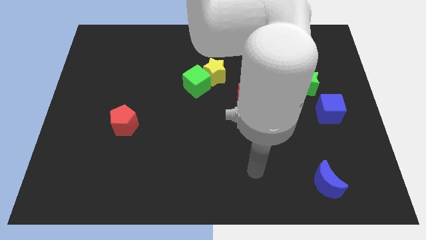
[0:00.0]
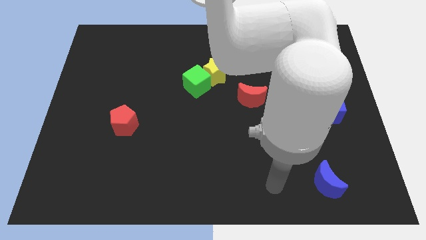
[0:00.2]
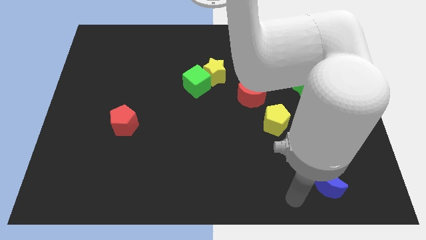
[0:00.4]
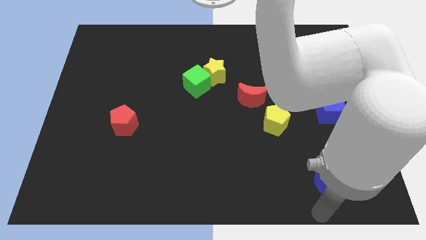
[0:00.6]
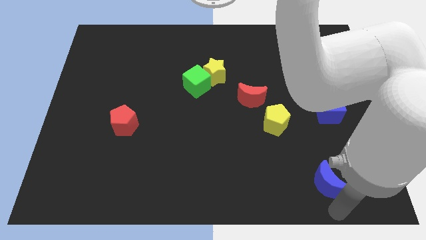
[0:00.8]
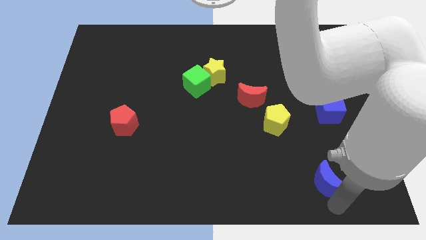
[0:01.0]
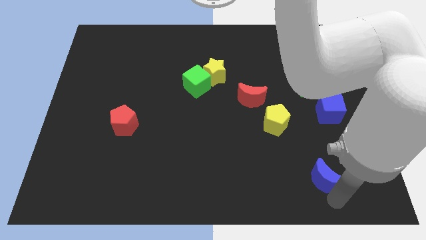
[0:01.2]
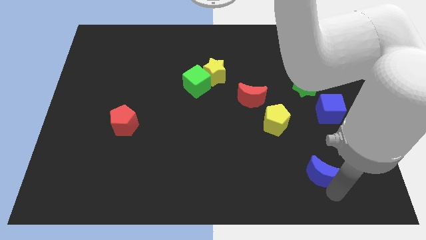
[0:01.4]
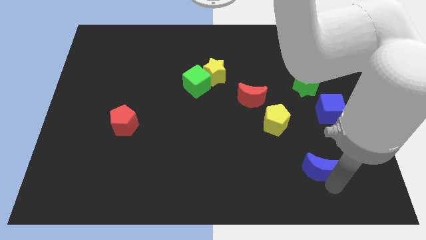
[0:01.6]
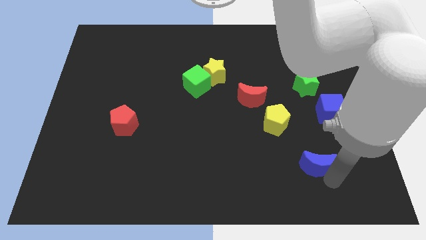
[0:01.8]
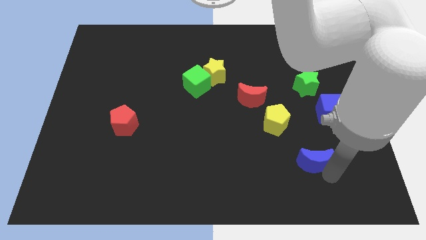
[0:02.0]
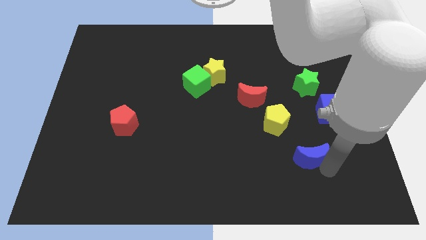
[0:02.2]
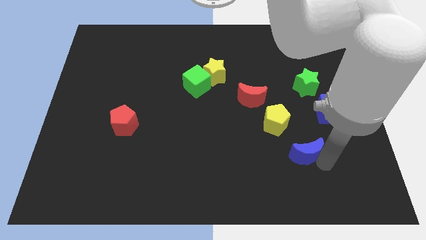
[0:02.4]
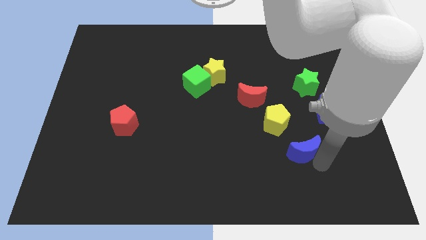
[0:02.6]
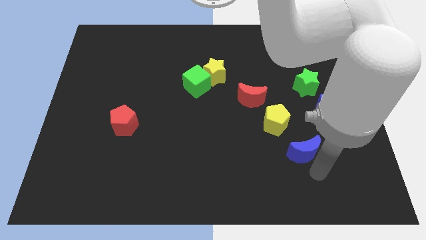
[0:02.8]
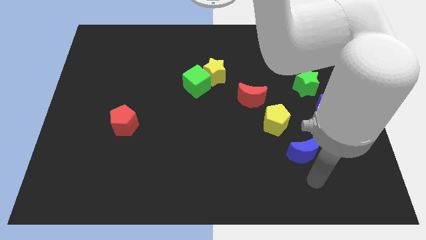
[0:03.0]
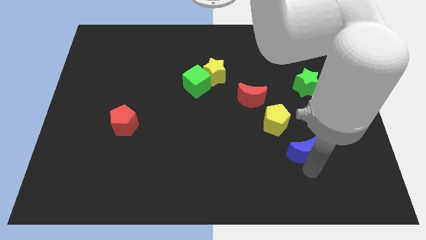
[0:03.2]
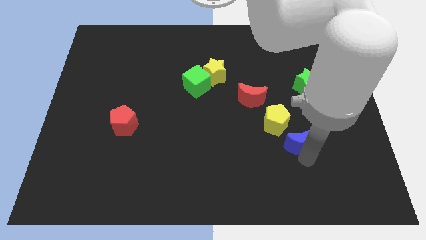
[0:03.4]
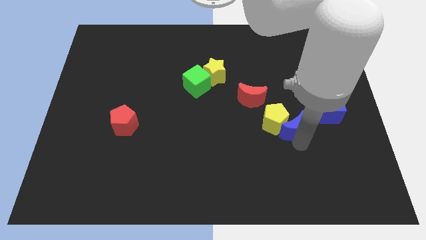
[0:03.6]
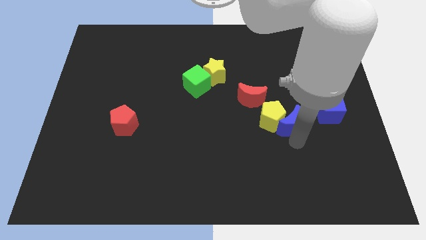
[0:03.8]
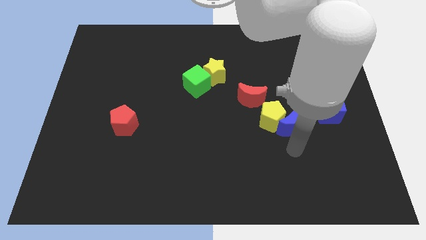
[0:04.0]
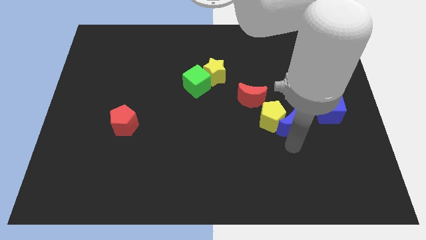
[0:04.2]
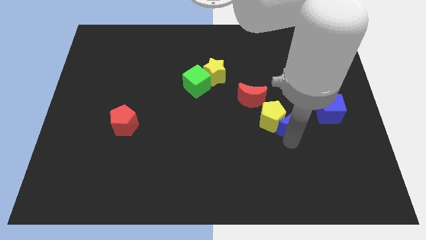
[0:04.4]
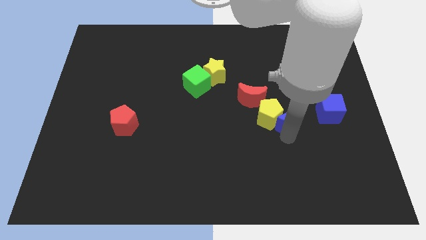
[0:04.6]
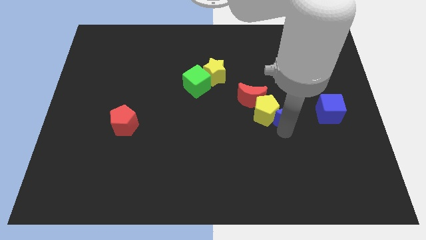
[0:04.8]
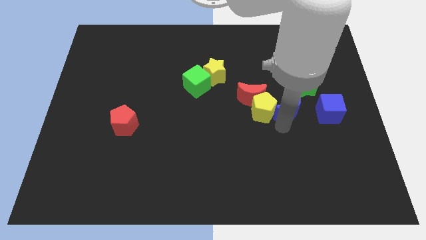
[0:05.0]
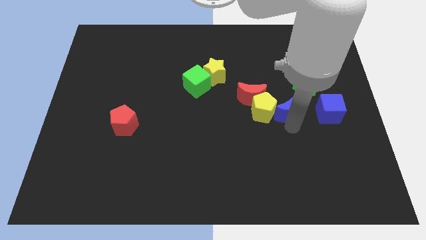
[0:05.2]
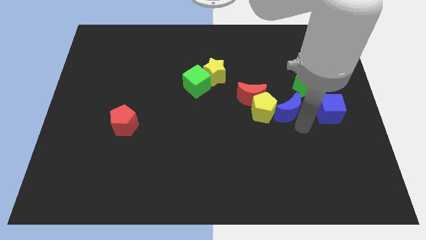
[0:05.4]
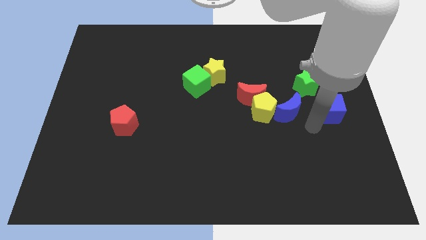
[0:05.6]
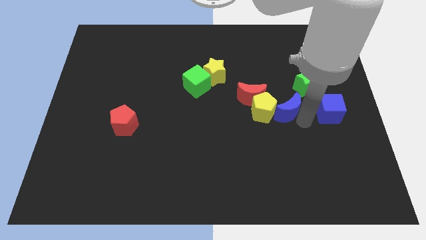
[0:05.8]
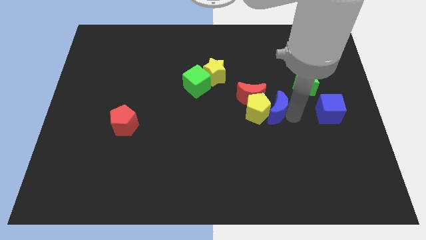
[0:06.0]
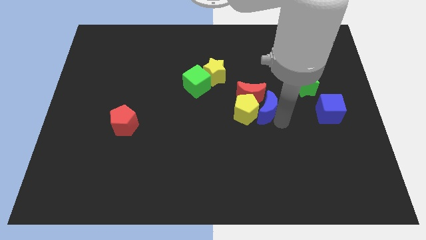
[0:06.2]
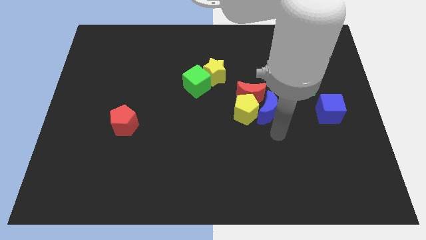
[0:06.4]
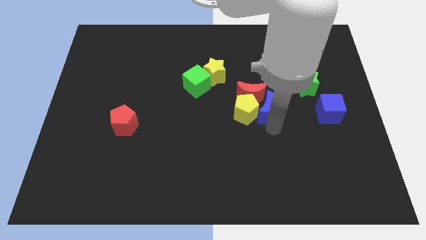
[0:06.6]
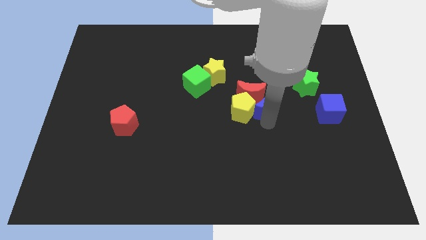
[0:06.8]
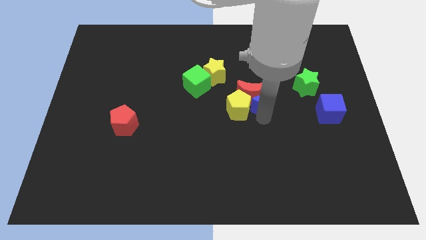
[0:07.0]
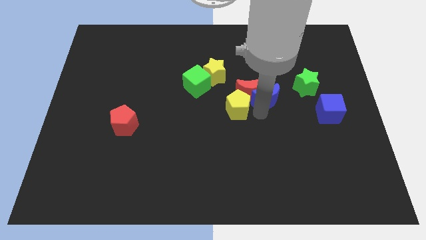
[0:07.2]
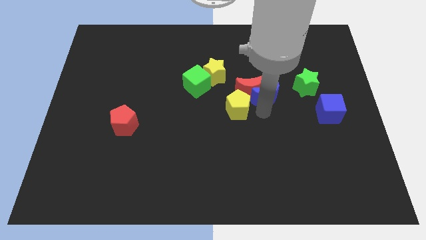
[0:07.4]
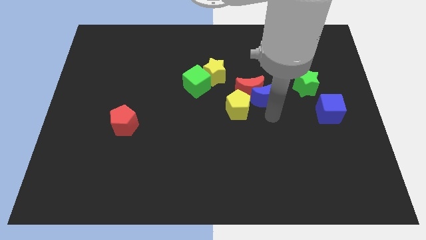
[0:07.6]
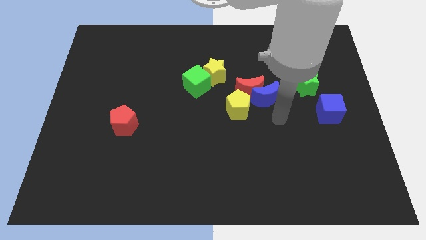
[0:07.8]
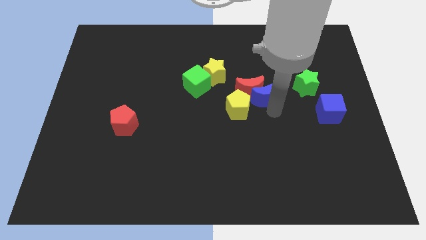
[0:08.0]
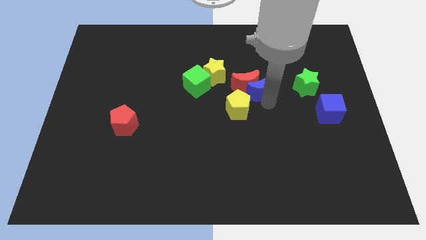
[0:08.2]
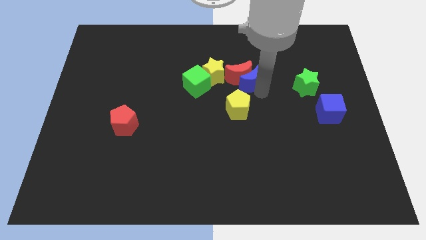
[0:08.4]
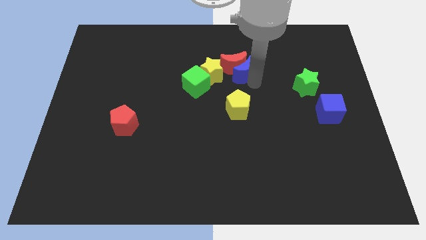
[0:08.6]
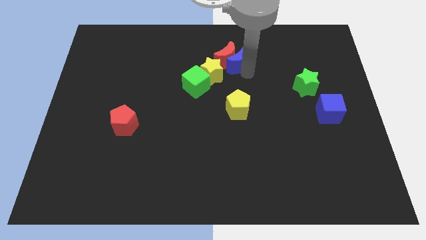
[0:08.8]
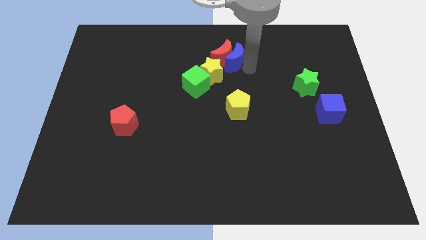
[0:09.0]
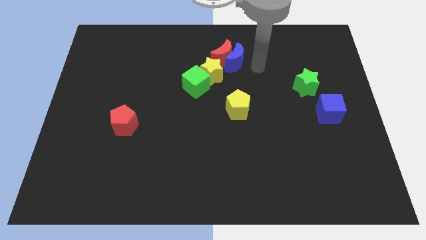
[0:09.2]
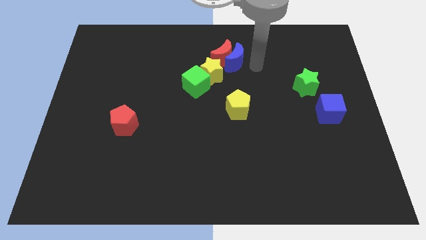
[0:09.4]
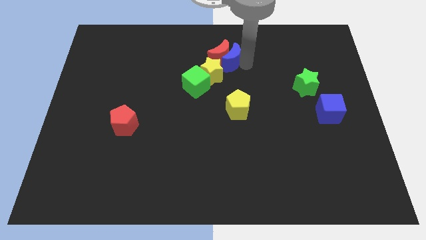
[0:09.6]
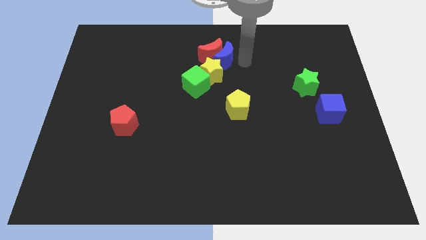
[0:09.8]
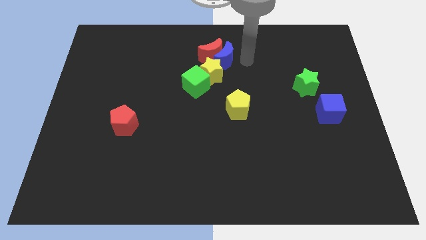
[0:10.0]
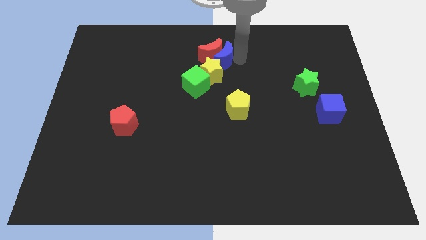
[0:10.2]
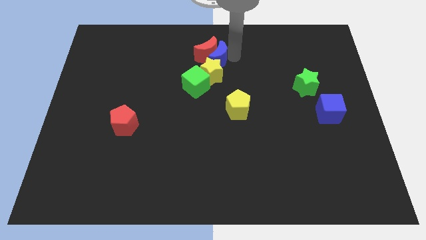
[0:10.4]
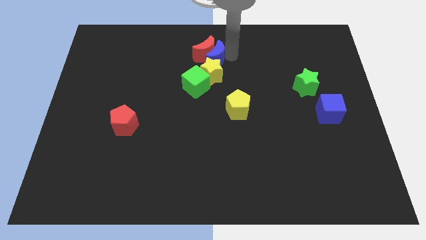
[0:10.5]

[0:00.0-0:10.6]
push the blue moon to the top left of the yellow star

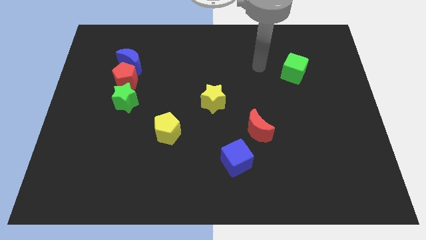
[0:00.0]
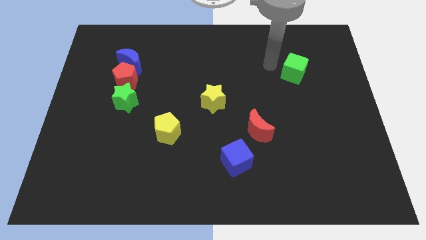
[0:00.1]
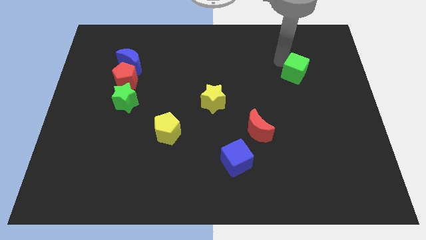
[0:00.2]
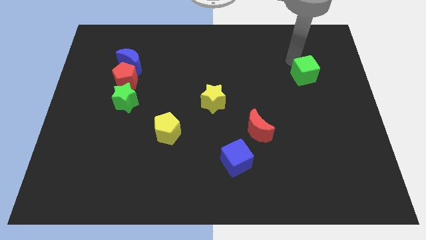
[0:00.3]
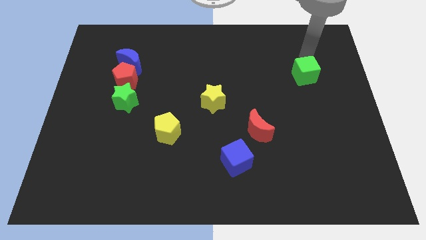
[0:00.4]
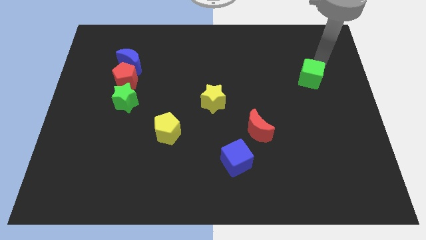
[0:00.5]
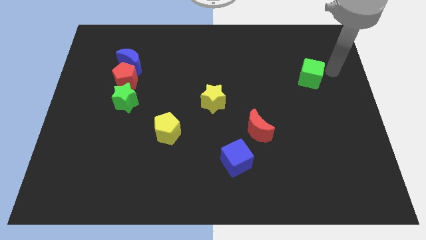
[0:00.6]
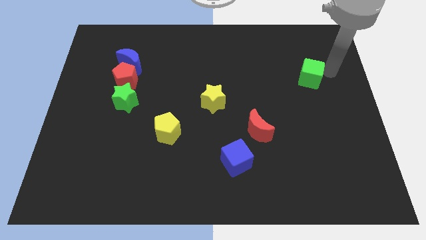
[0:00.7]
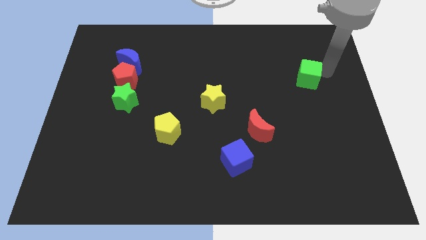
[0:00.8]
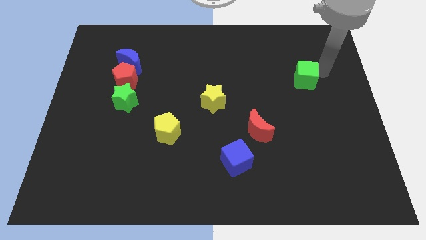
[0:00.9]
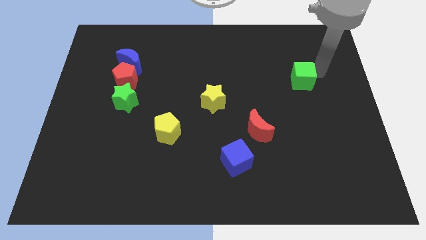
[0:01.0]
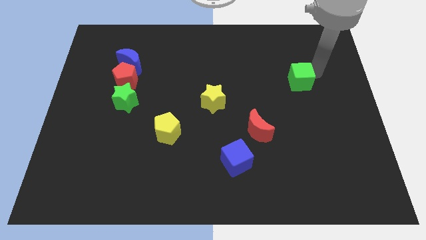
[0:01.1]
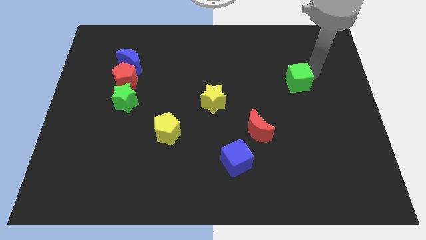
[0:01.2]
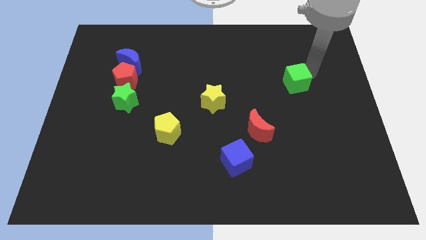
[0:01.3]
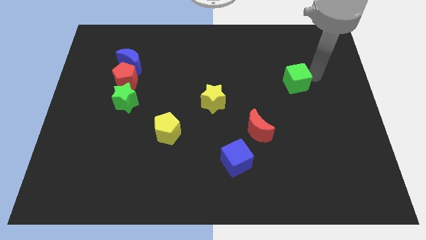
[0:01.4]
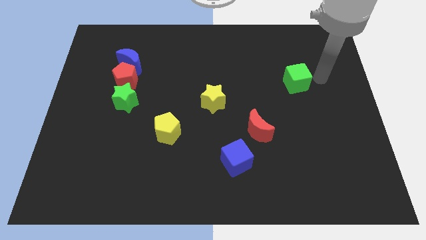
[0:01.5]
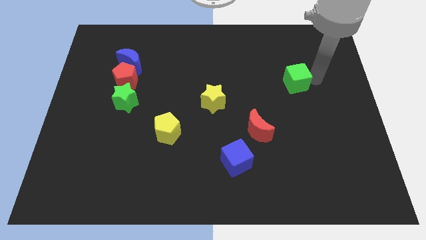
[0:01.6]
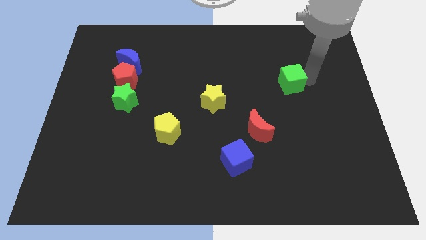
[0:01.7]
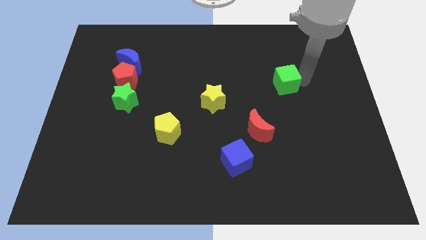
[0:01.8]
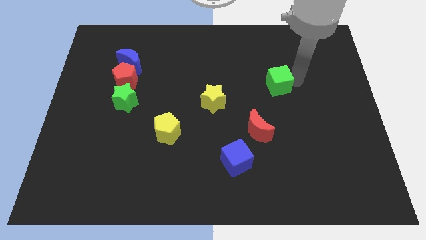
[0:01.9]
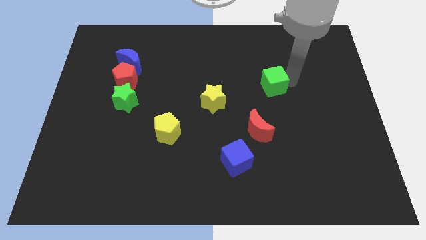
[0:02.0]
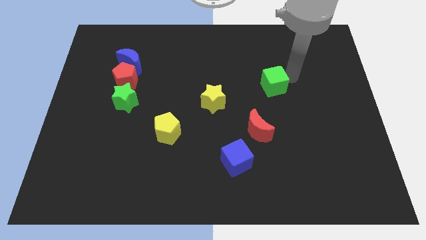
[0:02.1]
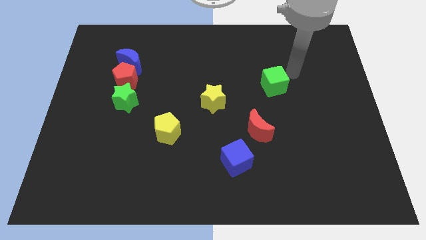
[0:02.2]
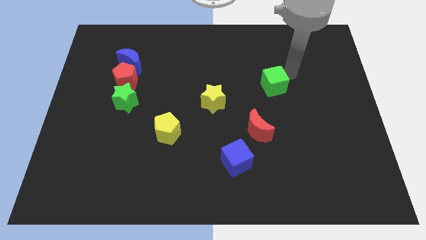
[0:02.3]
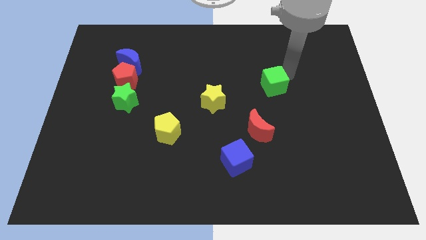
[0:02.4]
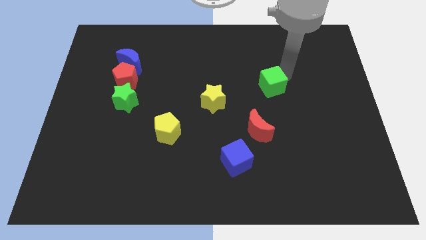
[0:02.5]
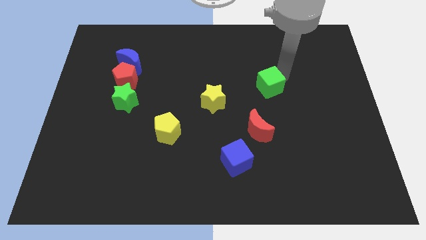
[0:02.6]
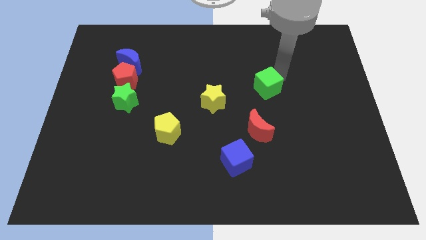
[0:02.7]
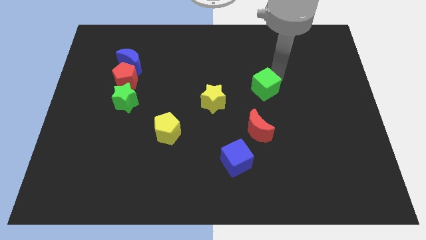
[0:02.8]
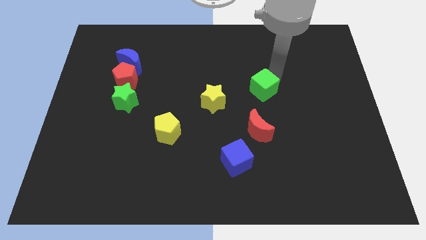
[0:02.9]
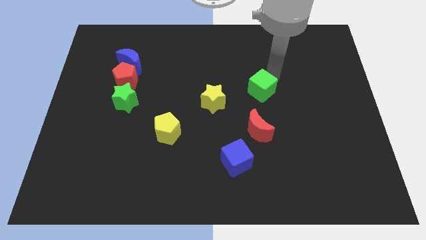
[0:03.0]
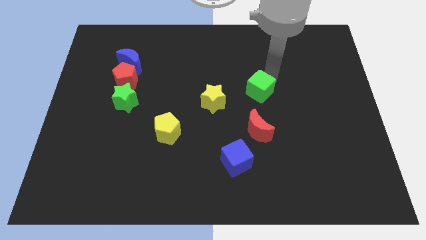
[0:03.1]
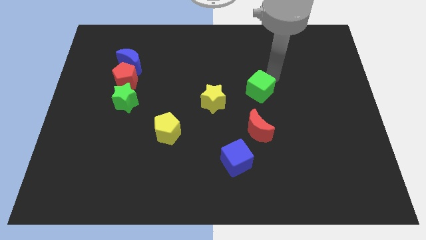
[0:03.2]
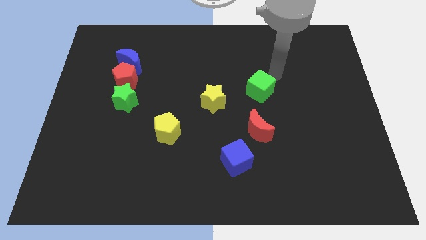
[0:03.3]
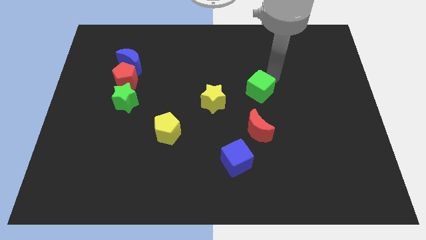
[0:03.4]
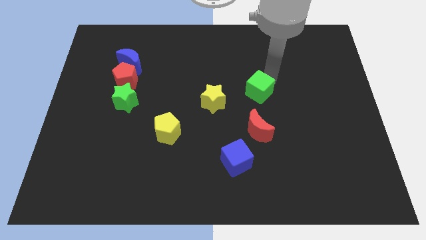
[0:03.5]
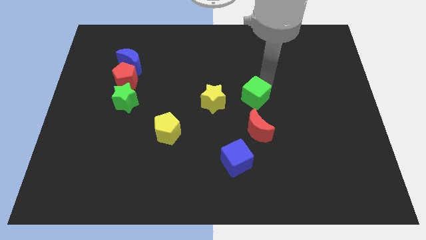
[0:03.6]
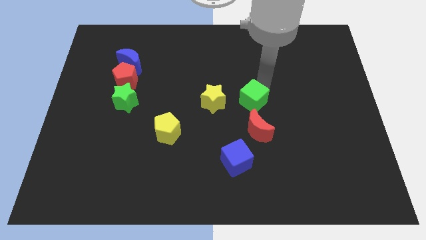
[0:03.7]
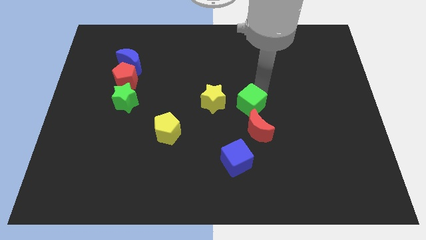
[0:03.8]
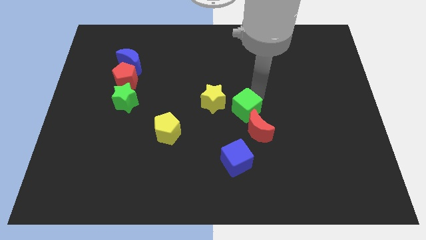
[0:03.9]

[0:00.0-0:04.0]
move the green cube to the top side of the blue cube
